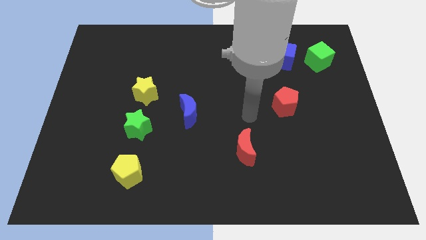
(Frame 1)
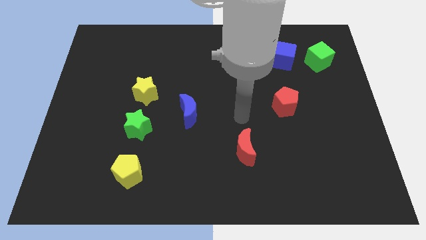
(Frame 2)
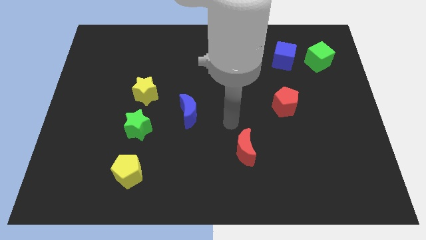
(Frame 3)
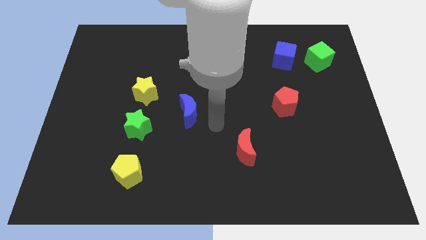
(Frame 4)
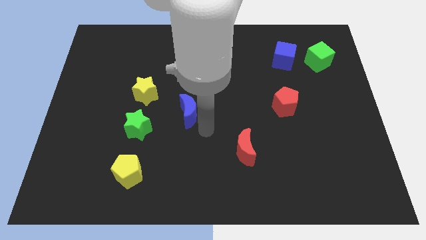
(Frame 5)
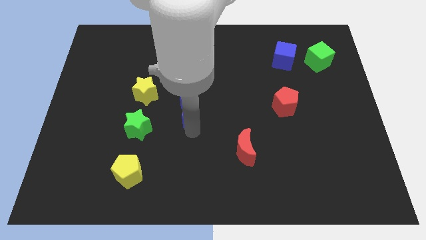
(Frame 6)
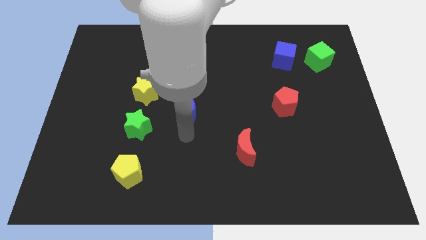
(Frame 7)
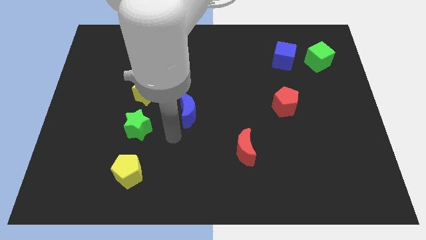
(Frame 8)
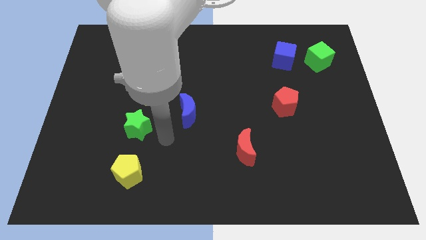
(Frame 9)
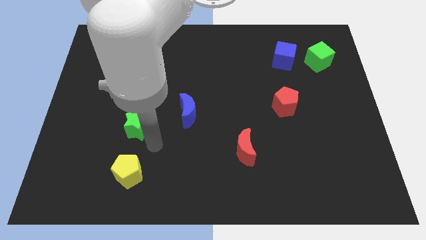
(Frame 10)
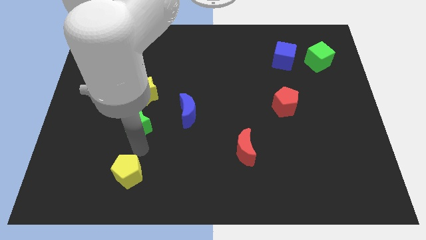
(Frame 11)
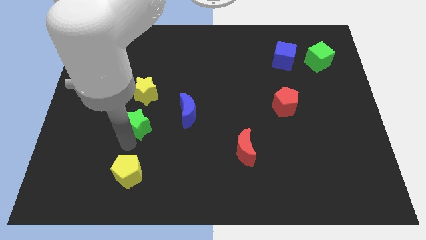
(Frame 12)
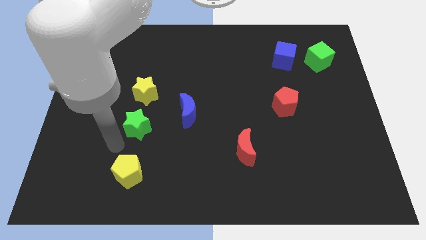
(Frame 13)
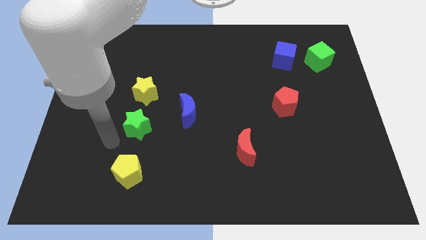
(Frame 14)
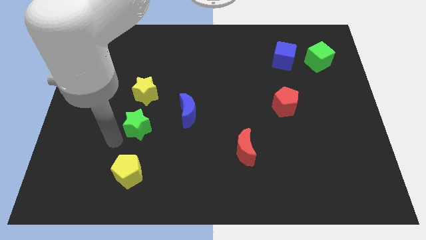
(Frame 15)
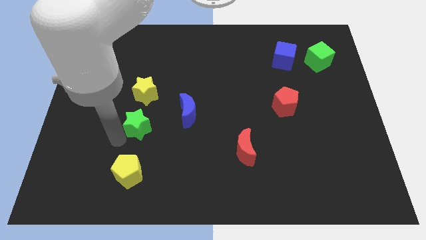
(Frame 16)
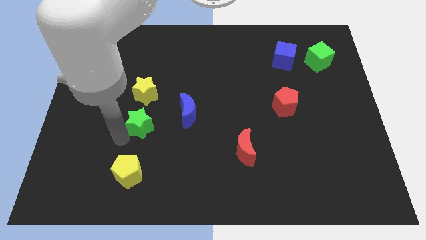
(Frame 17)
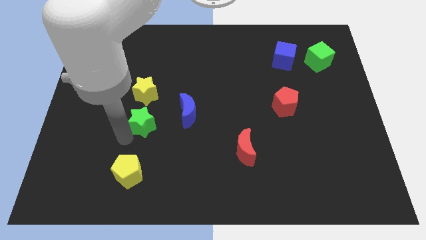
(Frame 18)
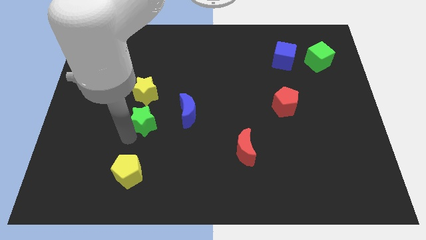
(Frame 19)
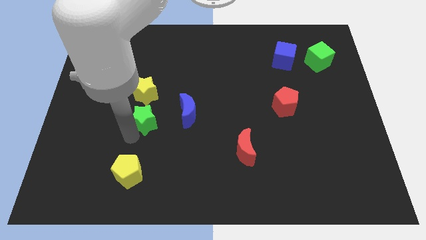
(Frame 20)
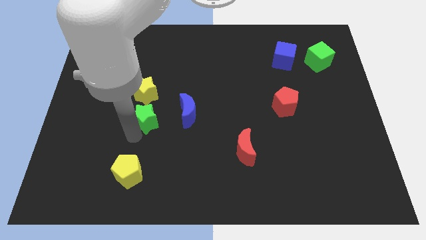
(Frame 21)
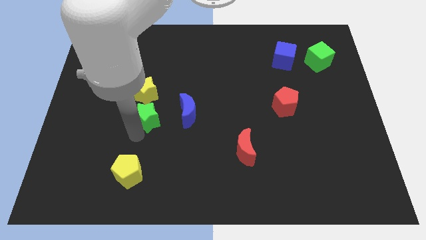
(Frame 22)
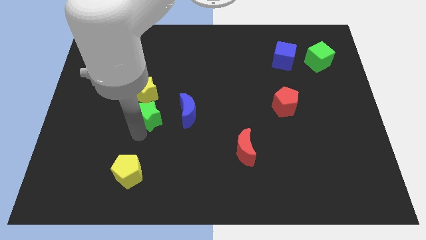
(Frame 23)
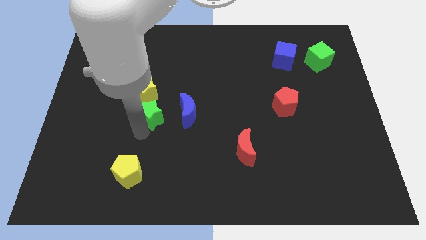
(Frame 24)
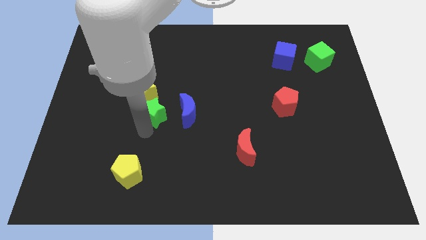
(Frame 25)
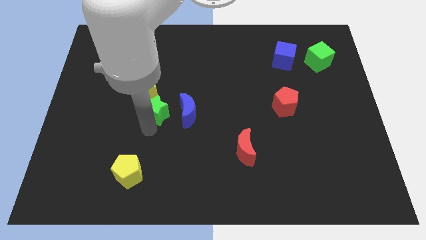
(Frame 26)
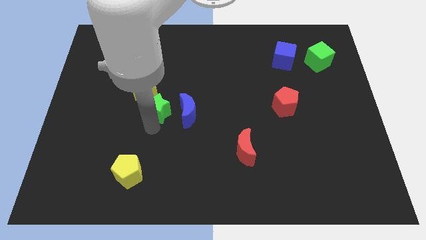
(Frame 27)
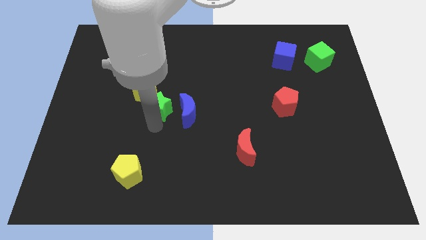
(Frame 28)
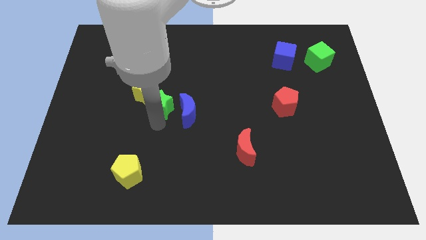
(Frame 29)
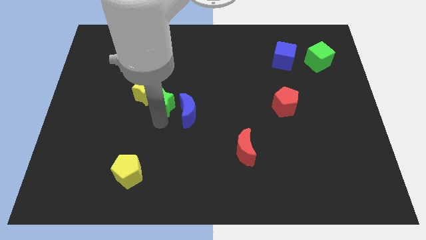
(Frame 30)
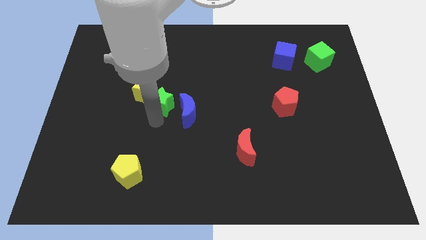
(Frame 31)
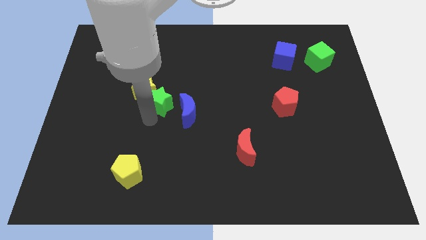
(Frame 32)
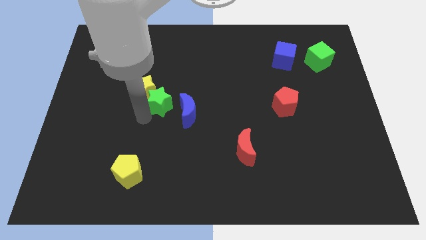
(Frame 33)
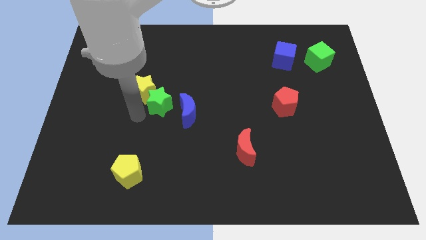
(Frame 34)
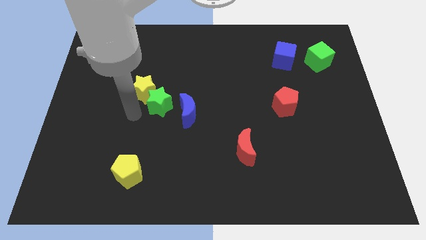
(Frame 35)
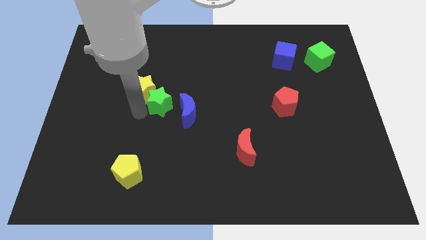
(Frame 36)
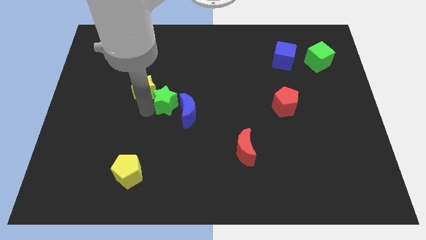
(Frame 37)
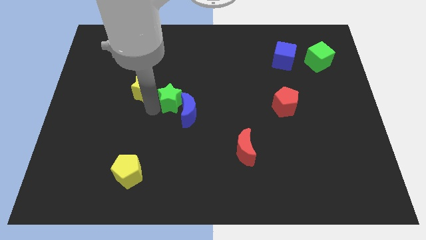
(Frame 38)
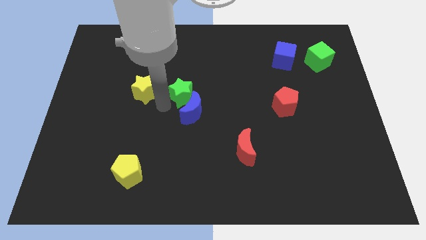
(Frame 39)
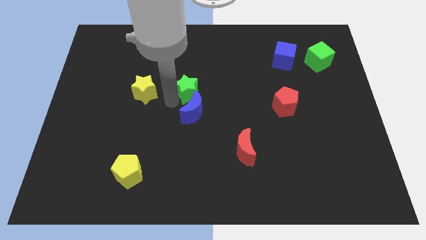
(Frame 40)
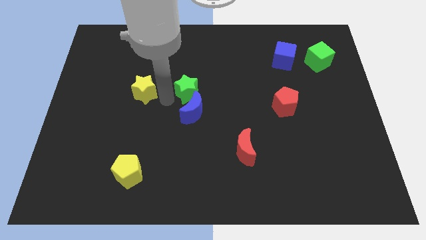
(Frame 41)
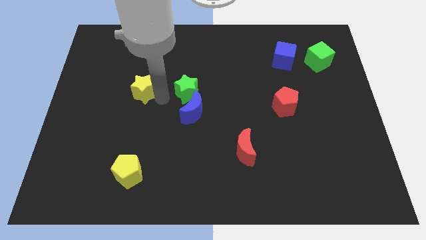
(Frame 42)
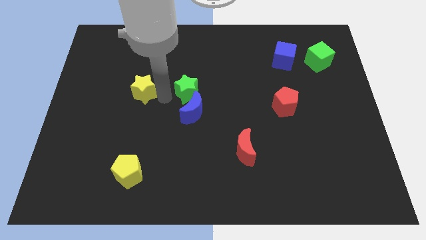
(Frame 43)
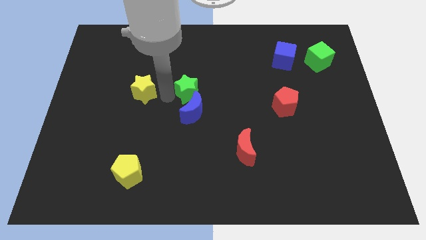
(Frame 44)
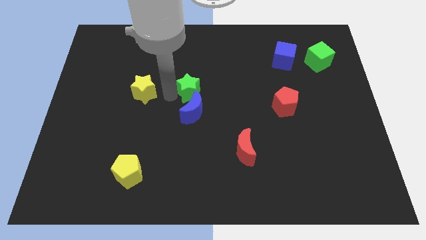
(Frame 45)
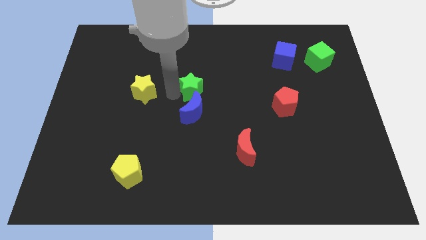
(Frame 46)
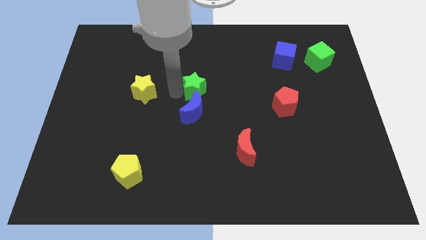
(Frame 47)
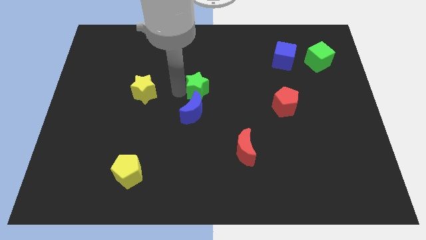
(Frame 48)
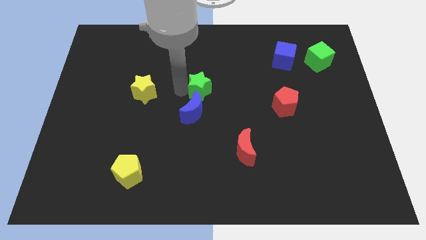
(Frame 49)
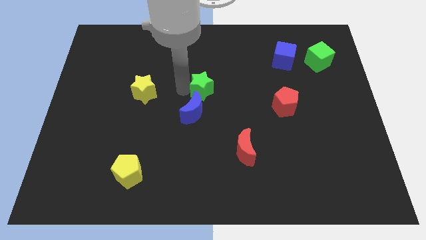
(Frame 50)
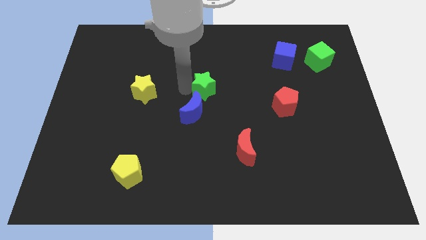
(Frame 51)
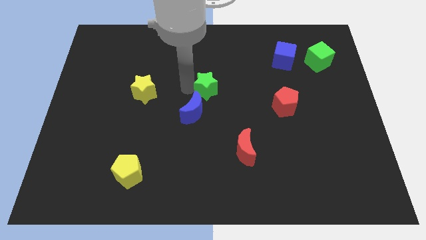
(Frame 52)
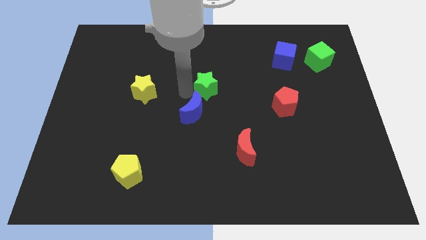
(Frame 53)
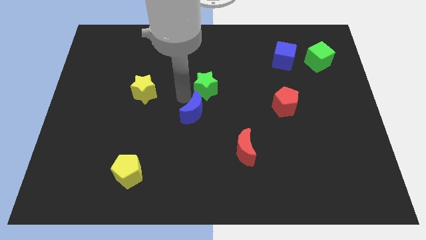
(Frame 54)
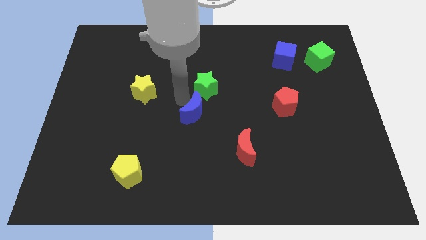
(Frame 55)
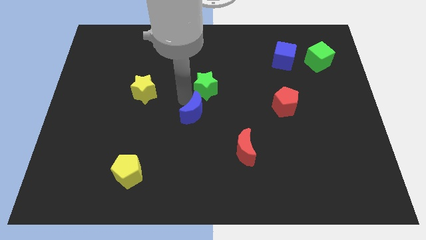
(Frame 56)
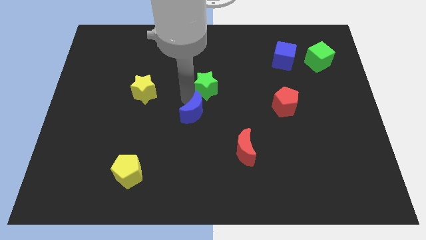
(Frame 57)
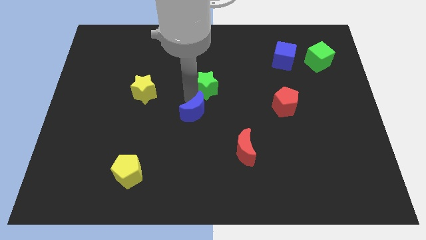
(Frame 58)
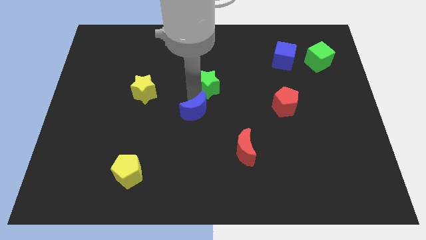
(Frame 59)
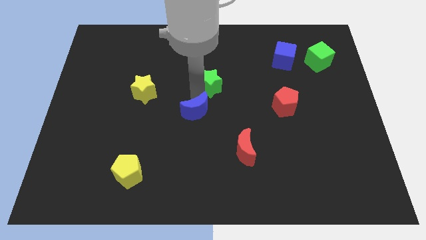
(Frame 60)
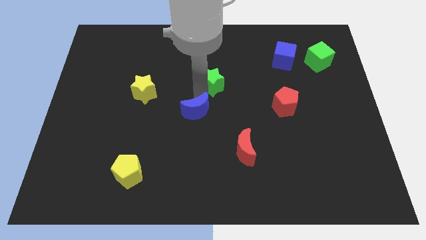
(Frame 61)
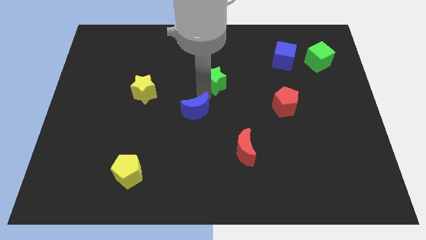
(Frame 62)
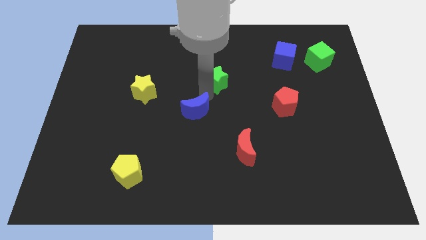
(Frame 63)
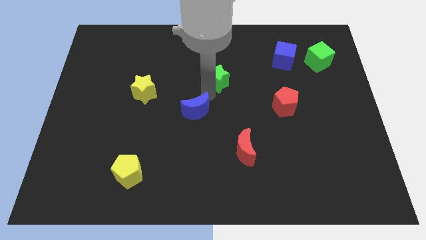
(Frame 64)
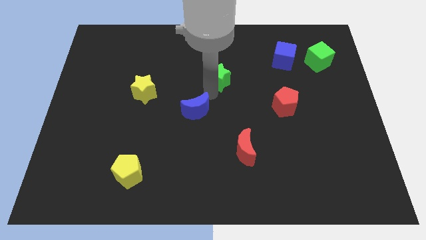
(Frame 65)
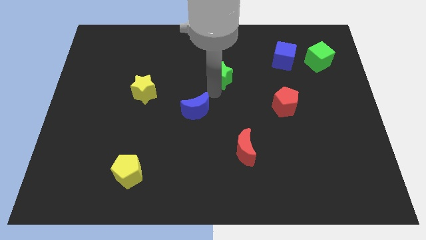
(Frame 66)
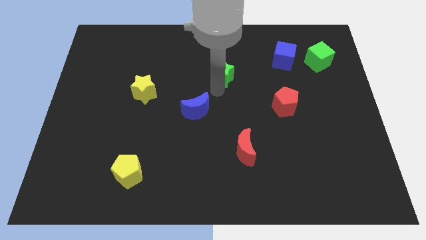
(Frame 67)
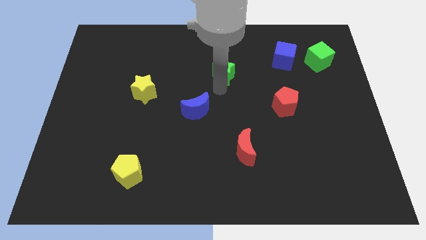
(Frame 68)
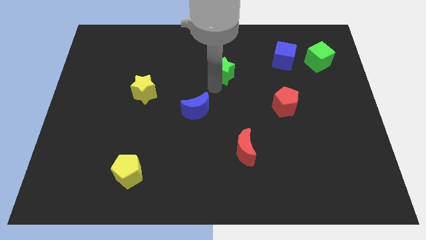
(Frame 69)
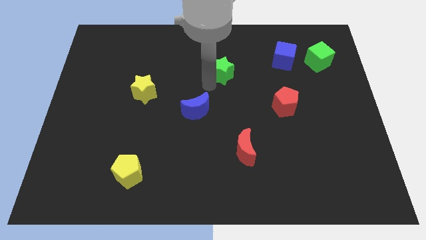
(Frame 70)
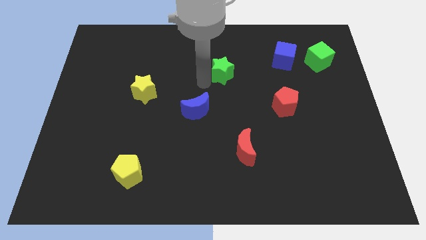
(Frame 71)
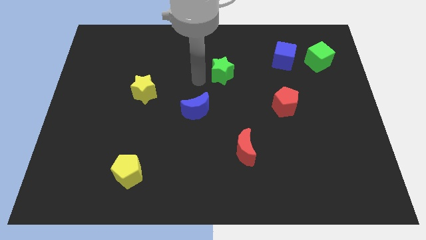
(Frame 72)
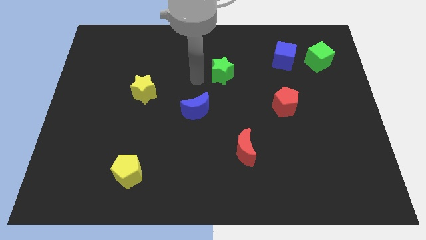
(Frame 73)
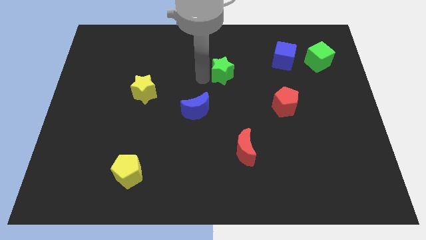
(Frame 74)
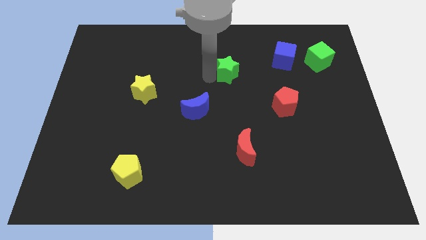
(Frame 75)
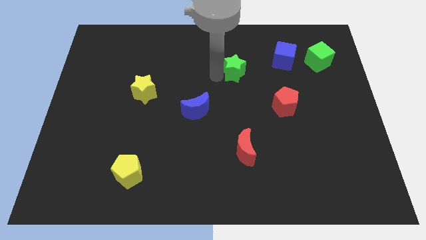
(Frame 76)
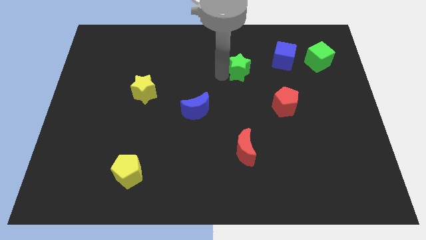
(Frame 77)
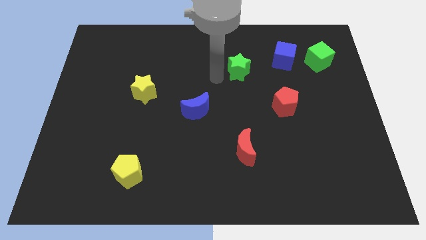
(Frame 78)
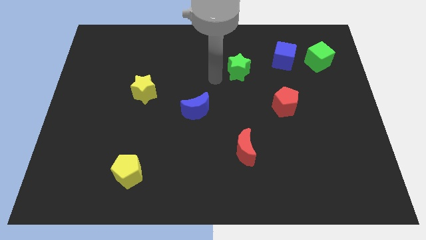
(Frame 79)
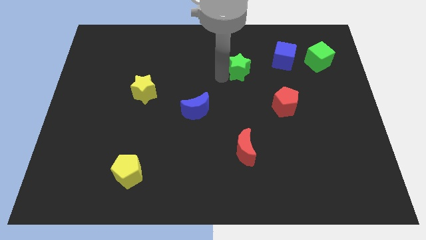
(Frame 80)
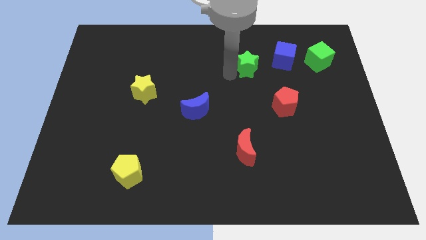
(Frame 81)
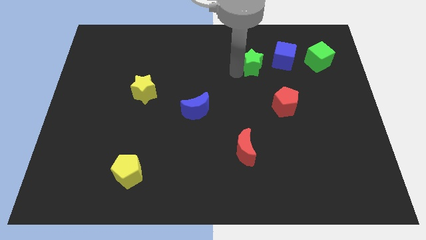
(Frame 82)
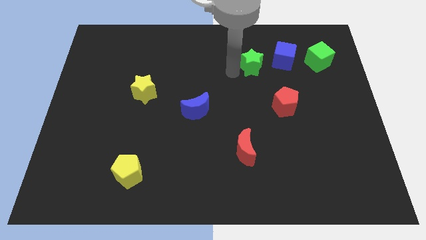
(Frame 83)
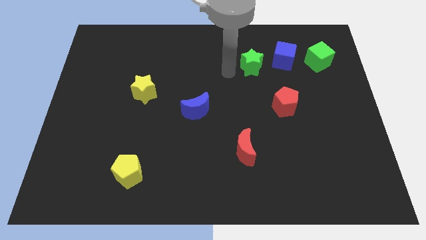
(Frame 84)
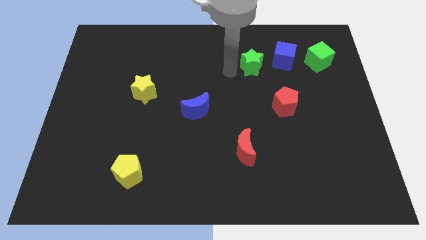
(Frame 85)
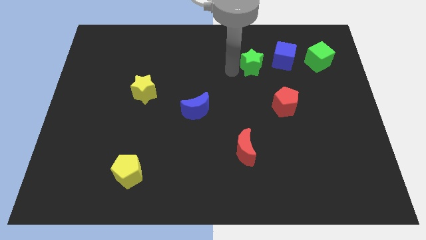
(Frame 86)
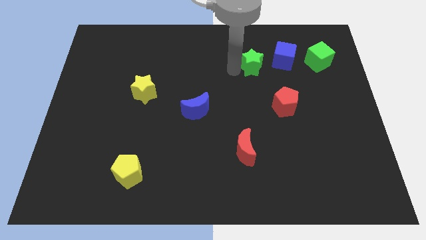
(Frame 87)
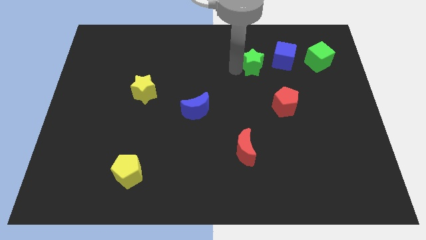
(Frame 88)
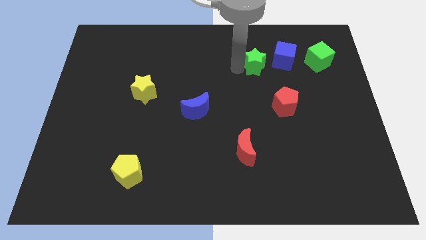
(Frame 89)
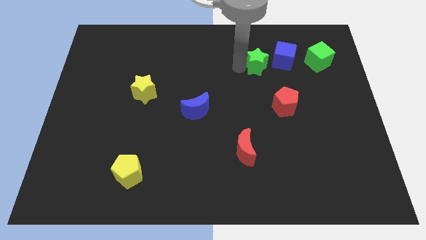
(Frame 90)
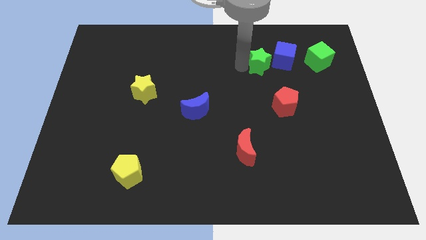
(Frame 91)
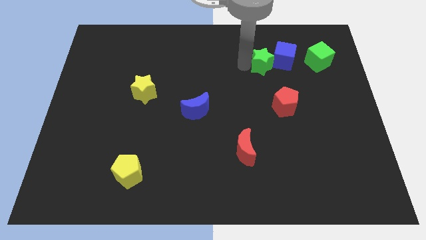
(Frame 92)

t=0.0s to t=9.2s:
push the green star next to the blue cube
